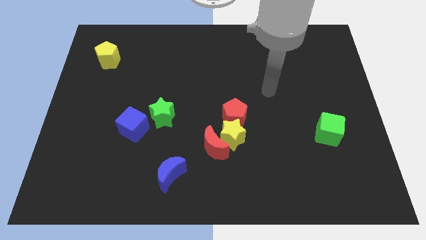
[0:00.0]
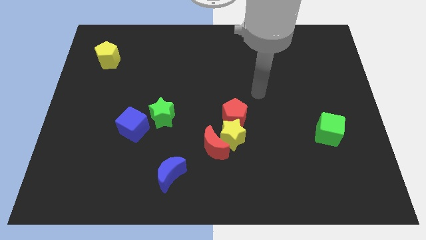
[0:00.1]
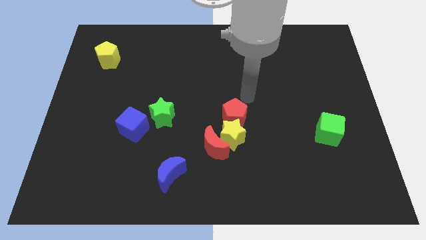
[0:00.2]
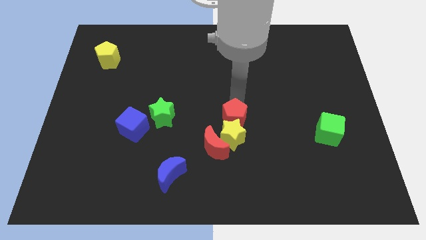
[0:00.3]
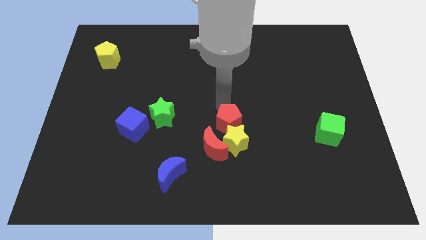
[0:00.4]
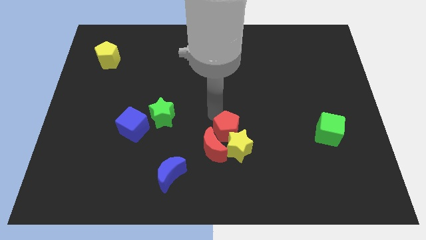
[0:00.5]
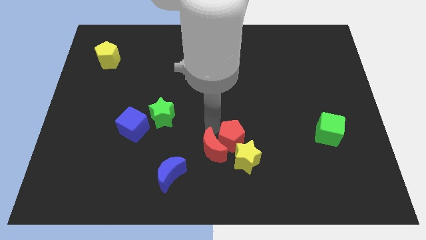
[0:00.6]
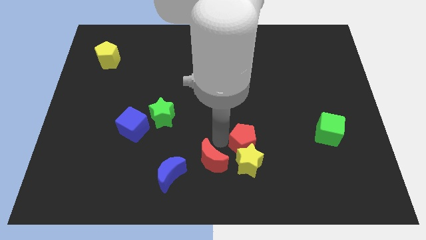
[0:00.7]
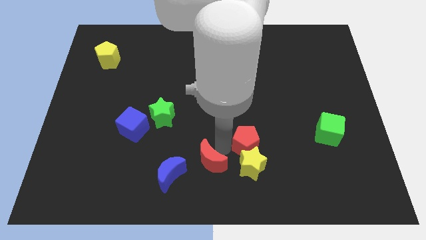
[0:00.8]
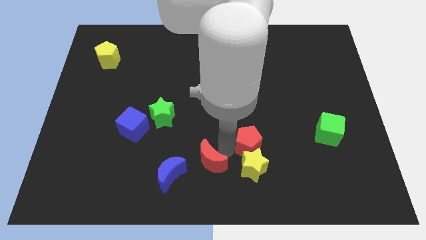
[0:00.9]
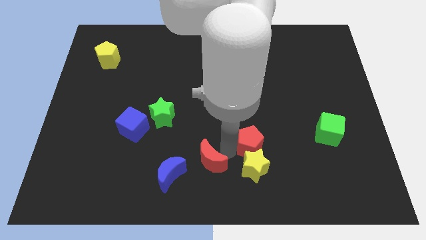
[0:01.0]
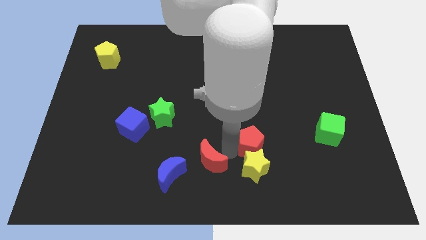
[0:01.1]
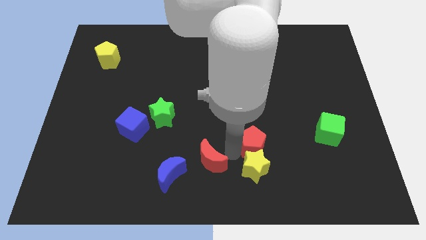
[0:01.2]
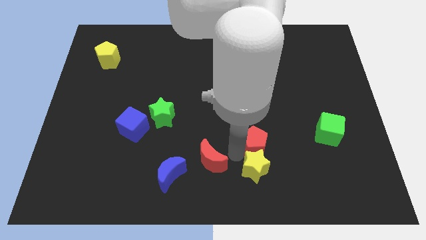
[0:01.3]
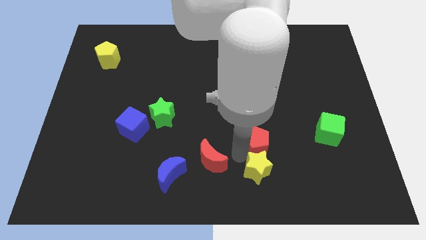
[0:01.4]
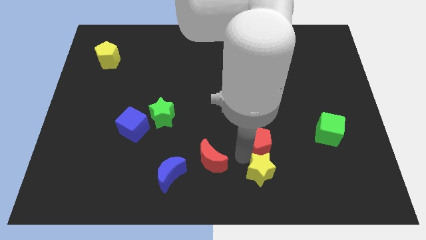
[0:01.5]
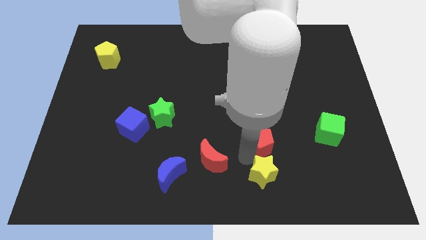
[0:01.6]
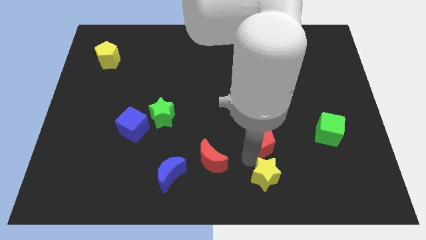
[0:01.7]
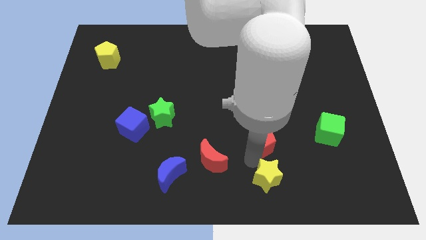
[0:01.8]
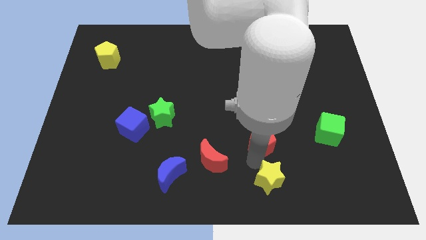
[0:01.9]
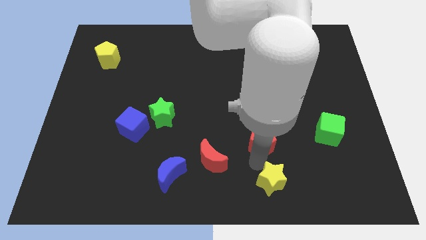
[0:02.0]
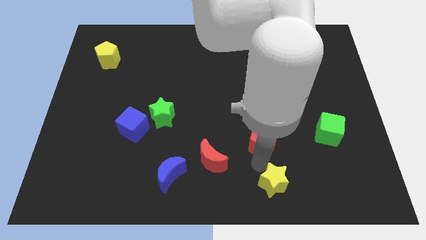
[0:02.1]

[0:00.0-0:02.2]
separate the yellow star from the red moon and red pentagon

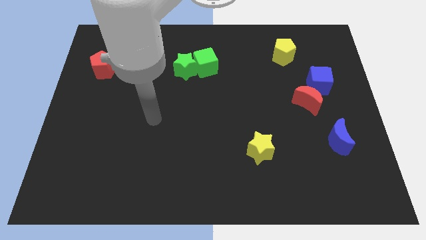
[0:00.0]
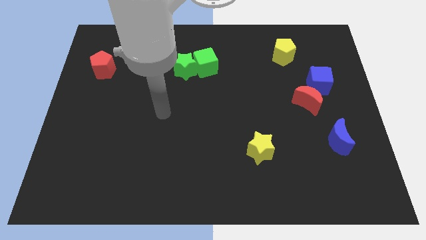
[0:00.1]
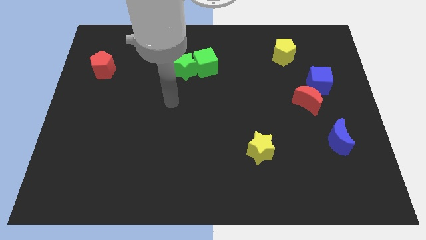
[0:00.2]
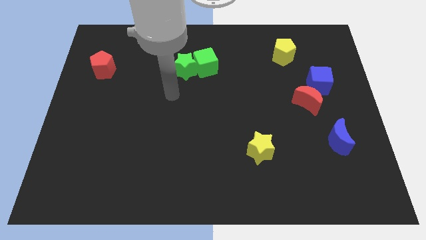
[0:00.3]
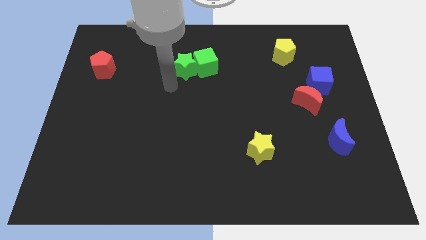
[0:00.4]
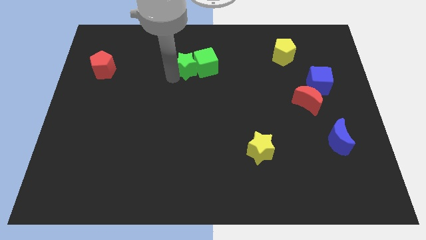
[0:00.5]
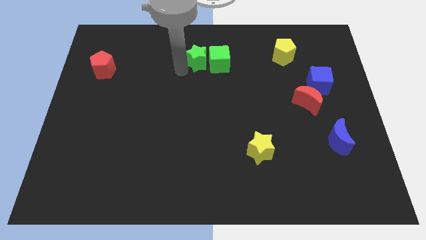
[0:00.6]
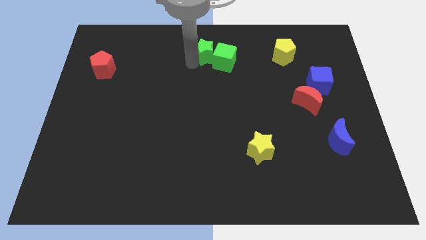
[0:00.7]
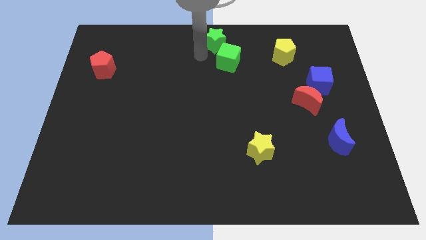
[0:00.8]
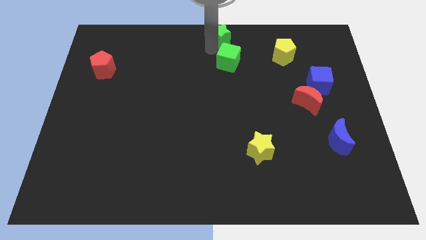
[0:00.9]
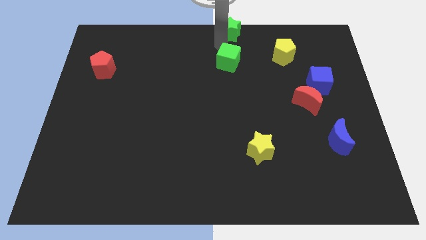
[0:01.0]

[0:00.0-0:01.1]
move the green cube away from the green star

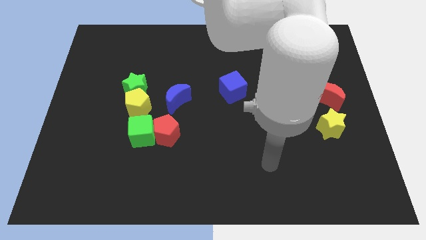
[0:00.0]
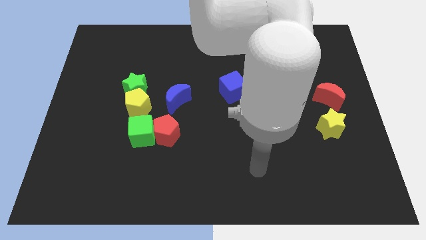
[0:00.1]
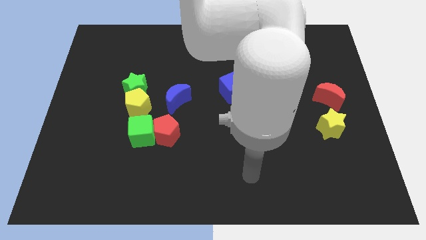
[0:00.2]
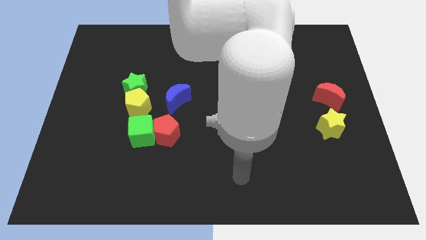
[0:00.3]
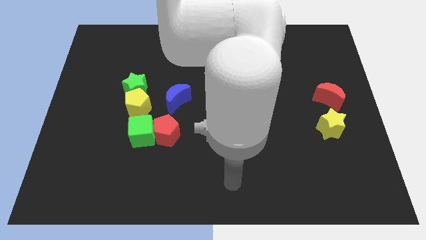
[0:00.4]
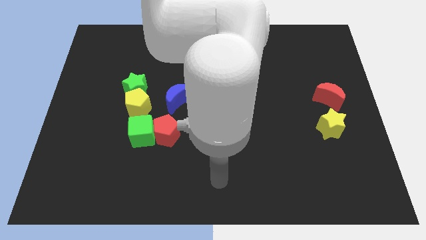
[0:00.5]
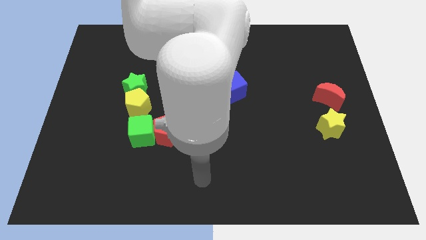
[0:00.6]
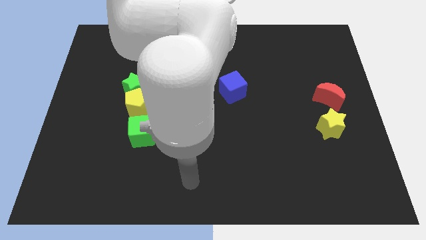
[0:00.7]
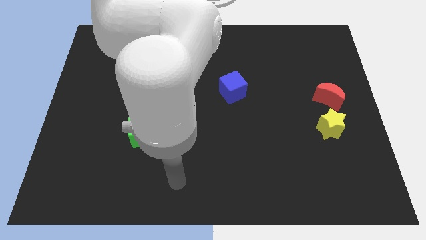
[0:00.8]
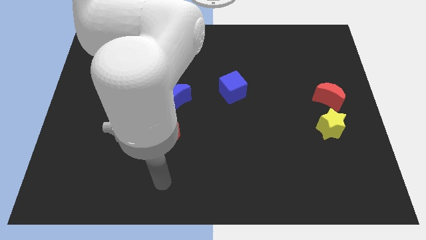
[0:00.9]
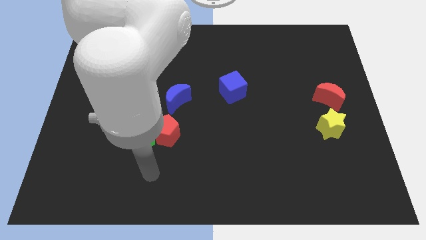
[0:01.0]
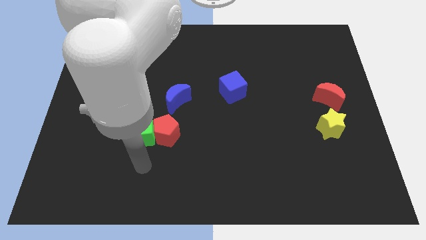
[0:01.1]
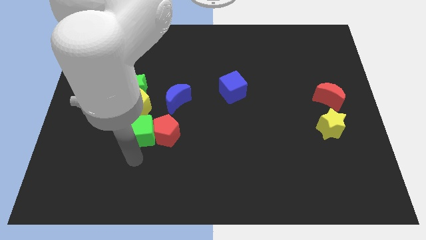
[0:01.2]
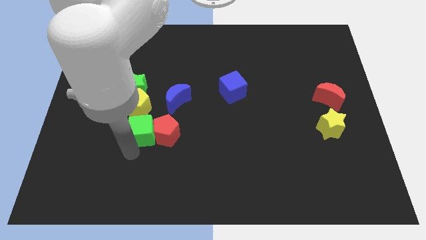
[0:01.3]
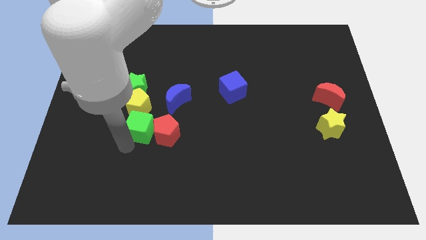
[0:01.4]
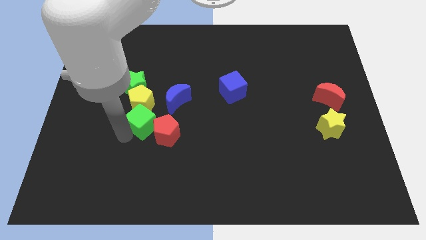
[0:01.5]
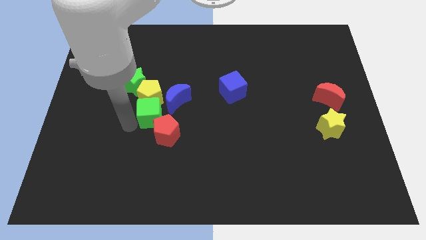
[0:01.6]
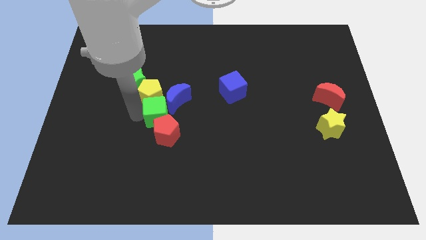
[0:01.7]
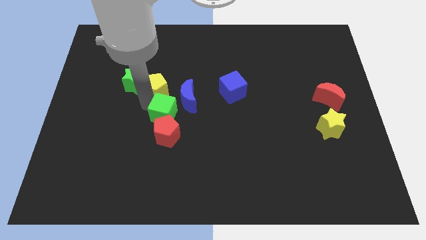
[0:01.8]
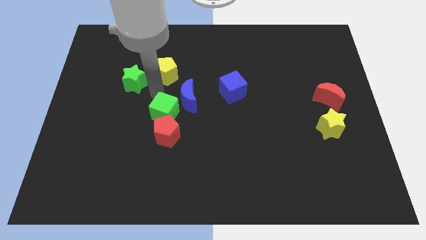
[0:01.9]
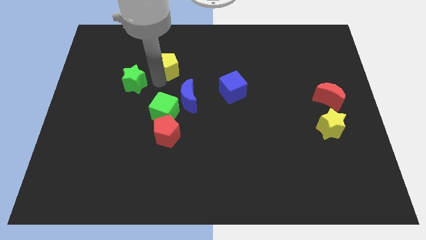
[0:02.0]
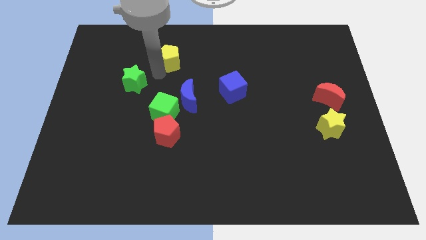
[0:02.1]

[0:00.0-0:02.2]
pull the green star apart from the yellow pentagon

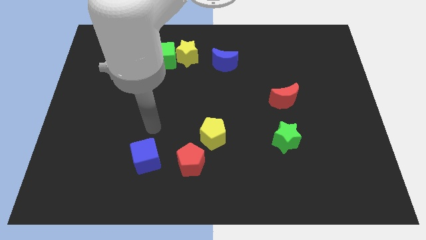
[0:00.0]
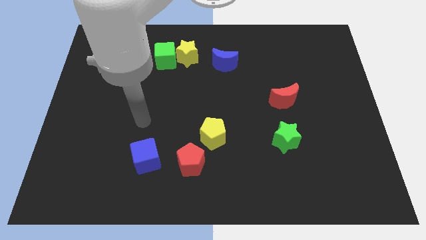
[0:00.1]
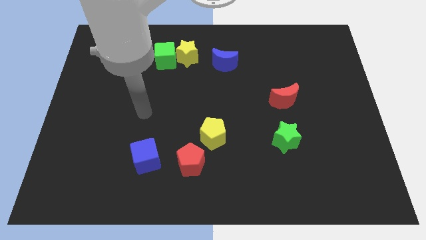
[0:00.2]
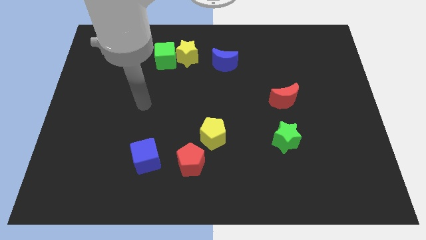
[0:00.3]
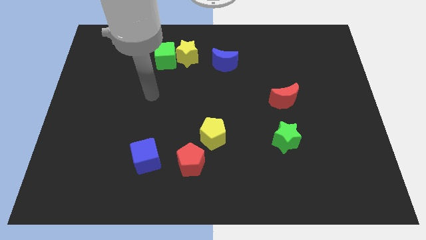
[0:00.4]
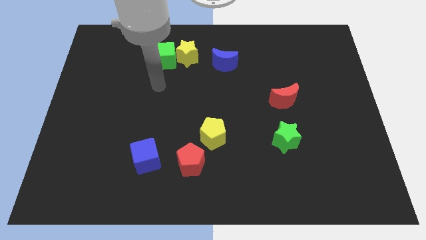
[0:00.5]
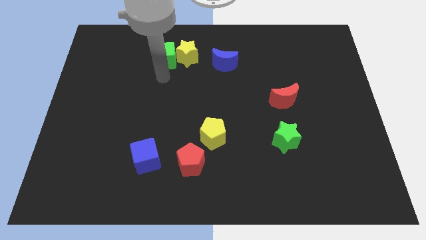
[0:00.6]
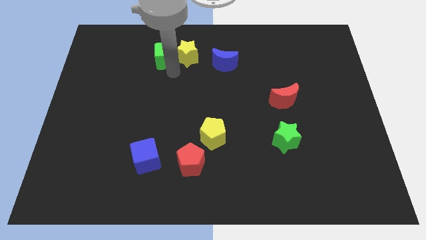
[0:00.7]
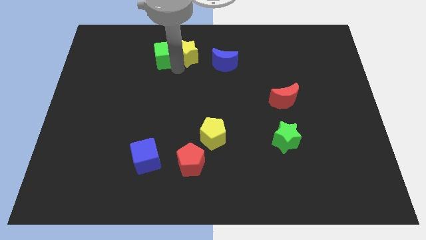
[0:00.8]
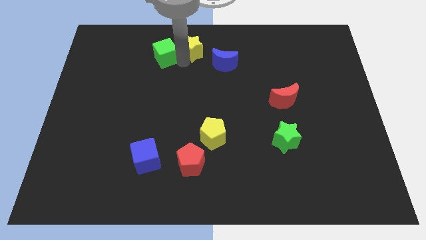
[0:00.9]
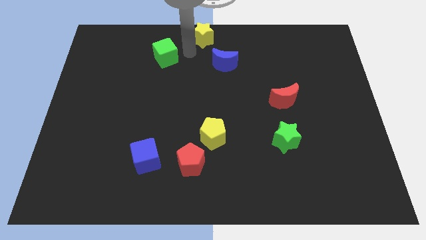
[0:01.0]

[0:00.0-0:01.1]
pull the green cube apart from the yellow star

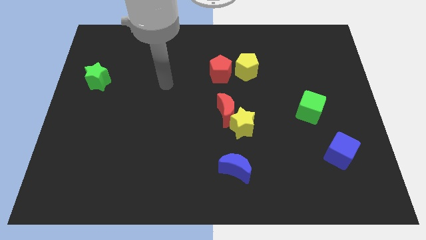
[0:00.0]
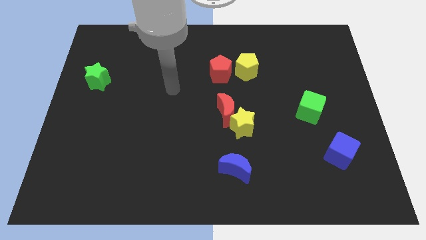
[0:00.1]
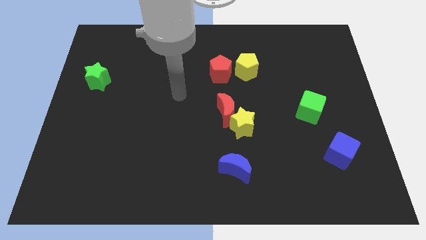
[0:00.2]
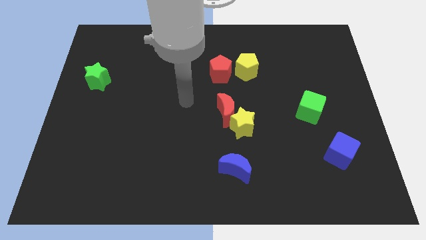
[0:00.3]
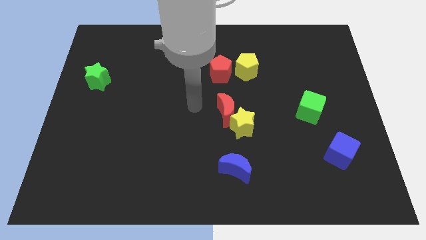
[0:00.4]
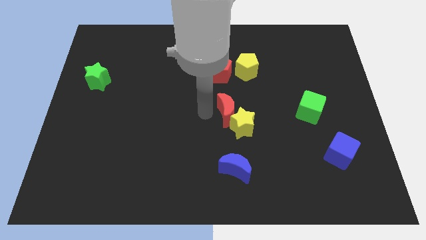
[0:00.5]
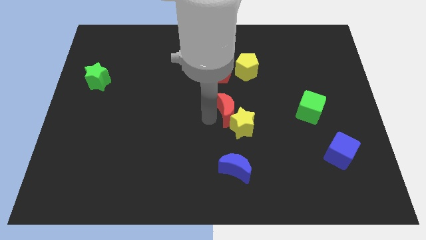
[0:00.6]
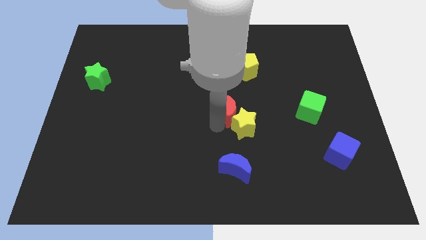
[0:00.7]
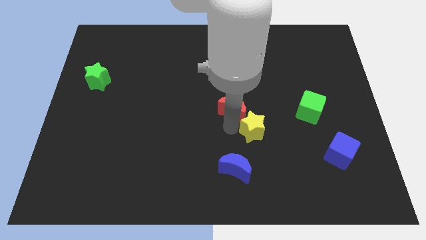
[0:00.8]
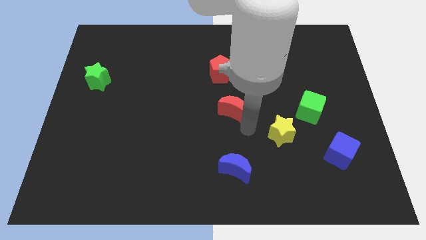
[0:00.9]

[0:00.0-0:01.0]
pull the red moon apart from the yellow star

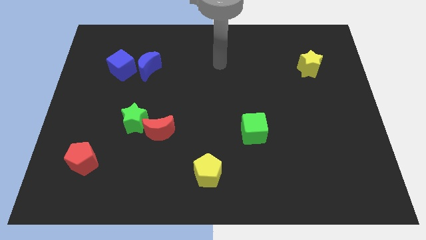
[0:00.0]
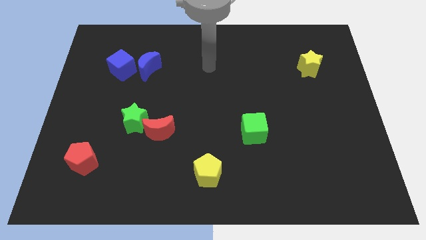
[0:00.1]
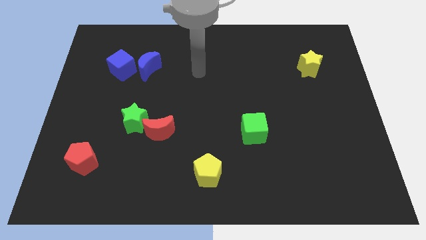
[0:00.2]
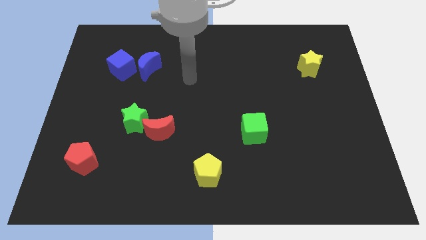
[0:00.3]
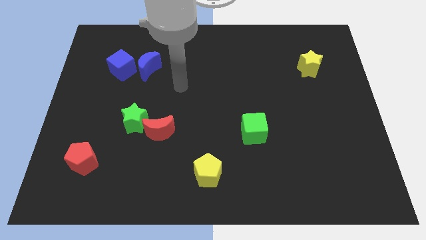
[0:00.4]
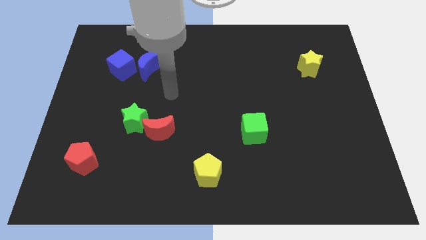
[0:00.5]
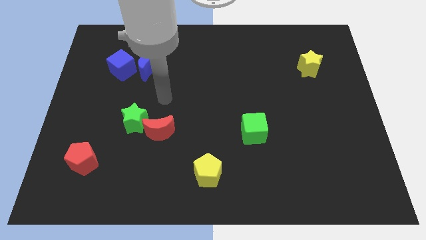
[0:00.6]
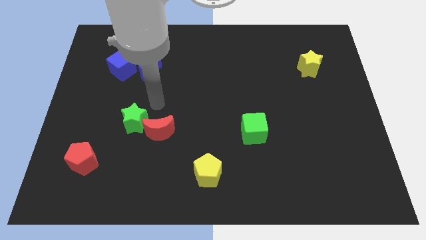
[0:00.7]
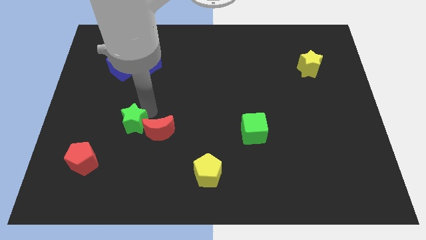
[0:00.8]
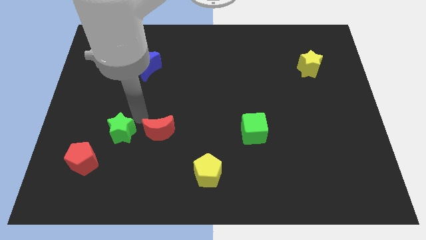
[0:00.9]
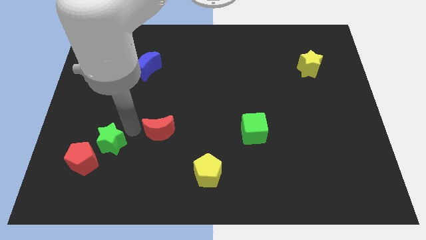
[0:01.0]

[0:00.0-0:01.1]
move the red moon away from the green star

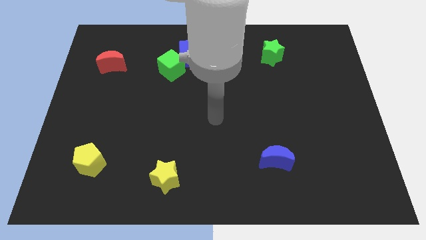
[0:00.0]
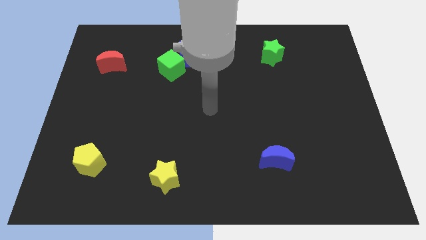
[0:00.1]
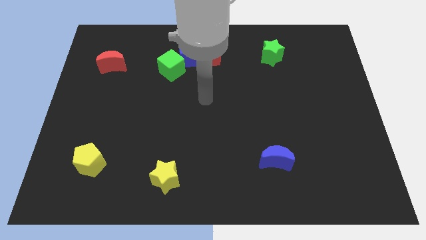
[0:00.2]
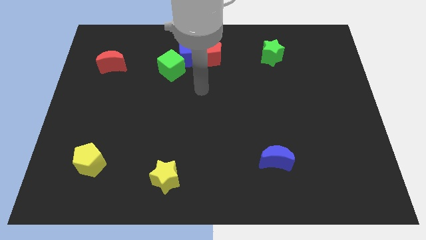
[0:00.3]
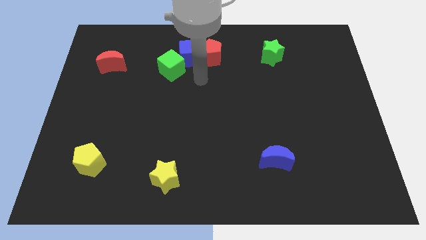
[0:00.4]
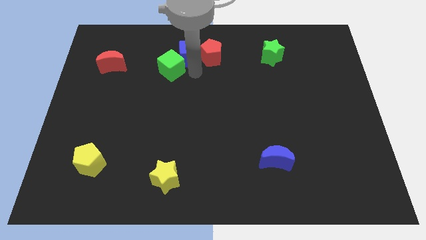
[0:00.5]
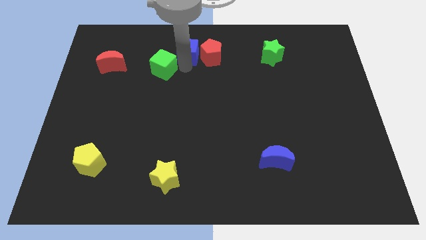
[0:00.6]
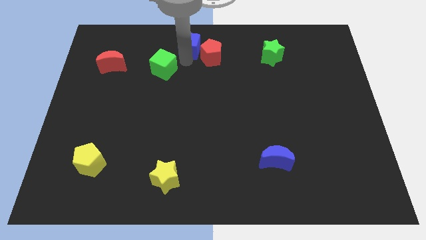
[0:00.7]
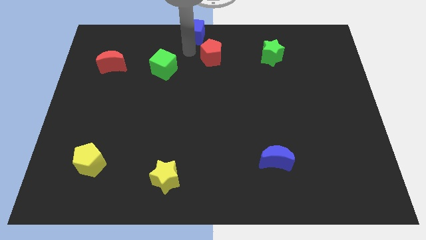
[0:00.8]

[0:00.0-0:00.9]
separate the red pentagon from the blue cube
